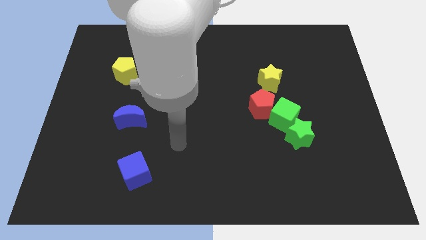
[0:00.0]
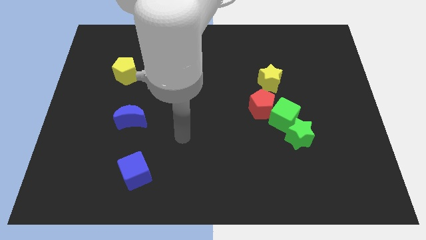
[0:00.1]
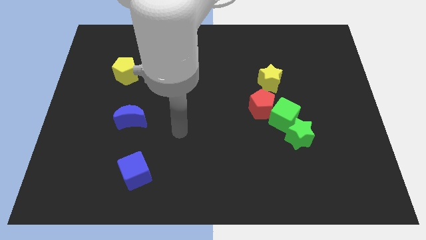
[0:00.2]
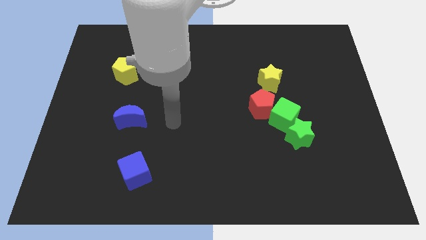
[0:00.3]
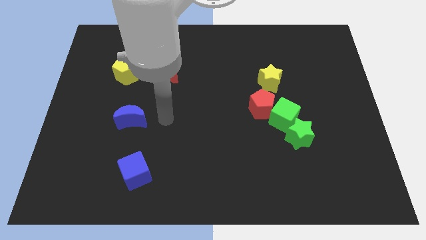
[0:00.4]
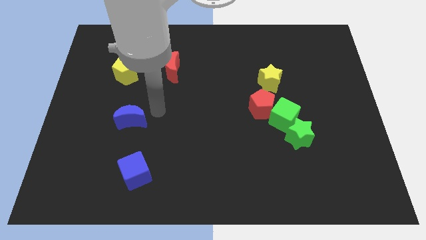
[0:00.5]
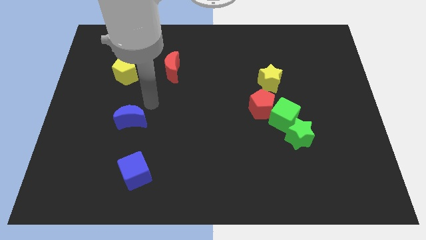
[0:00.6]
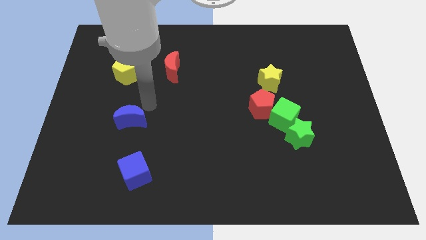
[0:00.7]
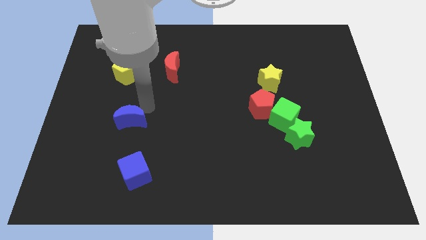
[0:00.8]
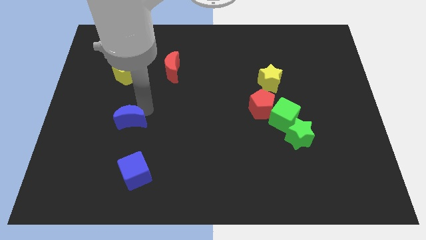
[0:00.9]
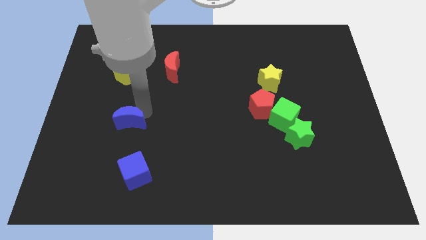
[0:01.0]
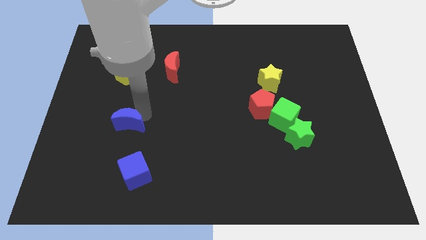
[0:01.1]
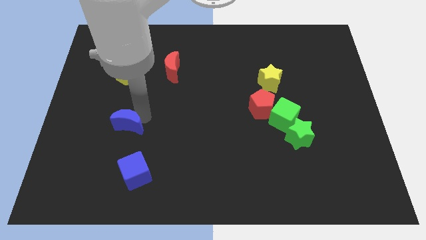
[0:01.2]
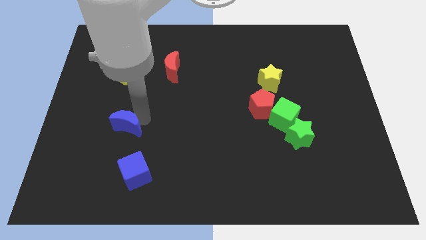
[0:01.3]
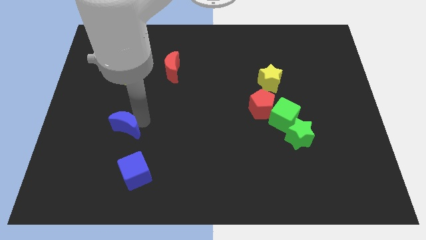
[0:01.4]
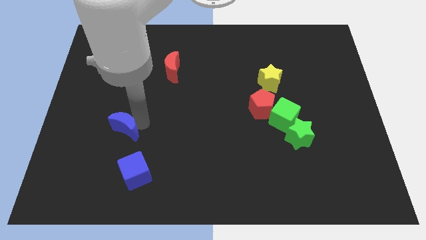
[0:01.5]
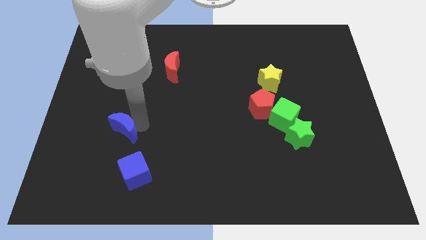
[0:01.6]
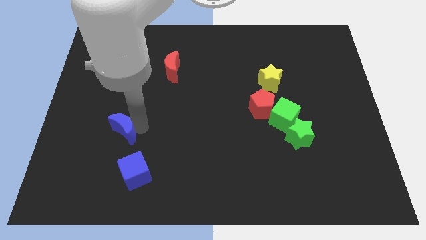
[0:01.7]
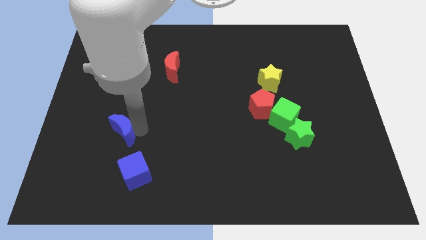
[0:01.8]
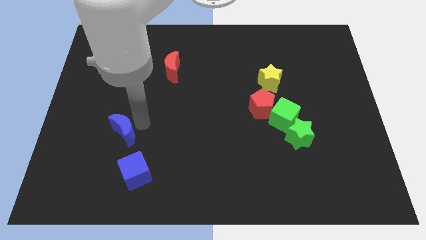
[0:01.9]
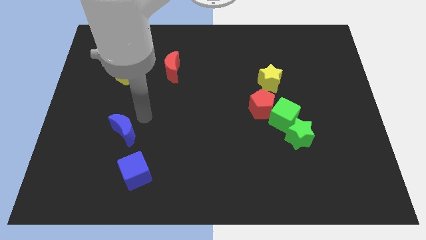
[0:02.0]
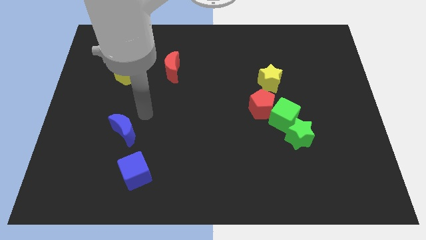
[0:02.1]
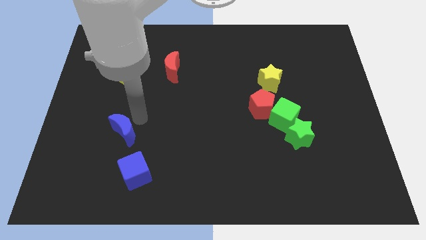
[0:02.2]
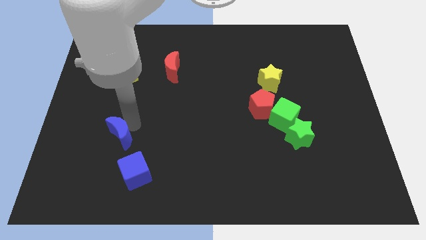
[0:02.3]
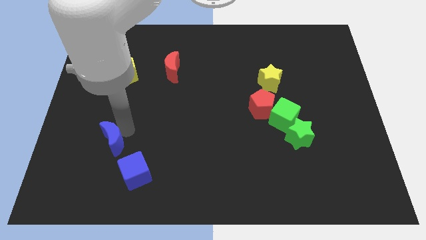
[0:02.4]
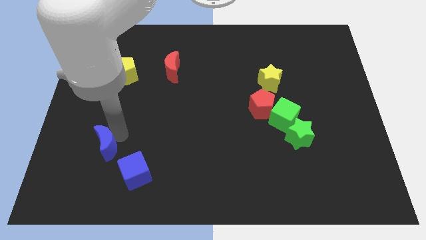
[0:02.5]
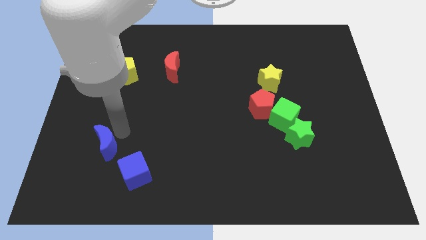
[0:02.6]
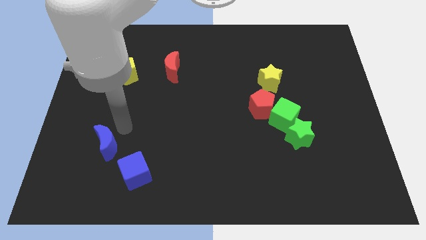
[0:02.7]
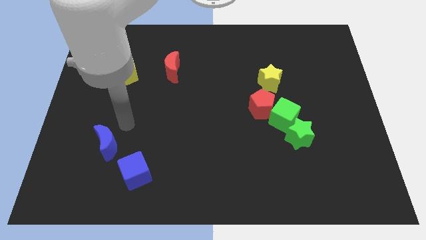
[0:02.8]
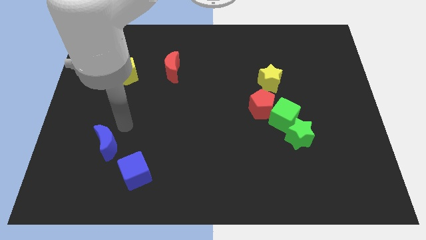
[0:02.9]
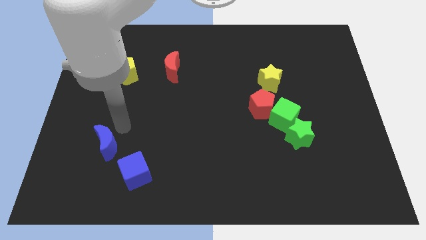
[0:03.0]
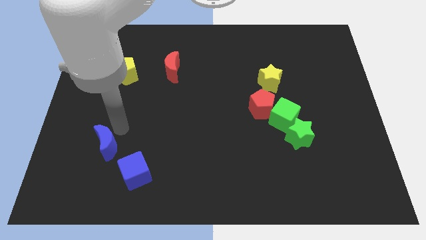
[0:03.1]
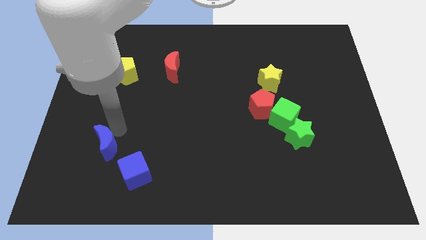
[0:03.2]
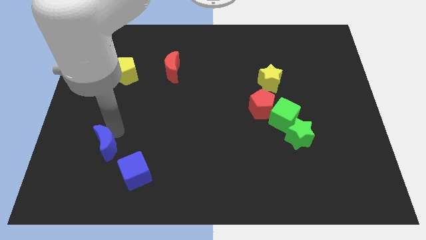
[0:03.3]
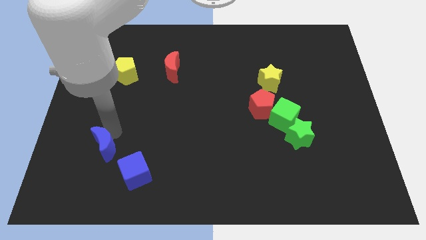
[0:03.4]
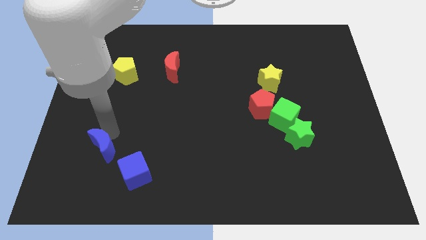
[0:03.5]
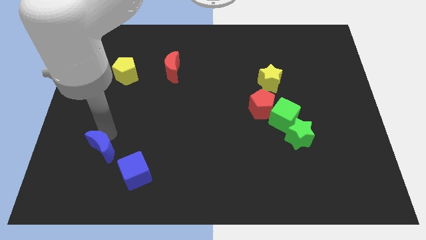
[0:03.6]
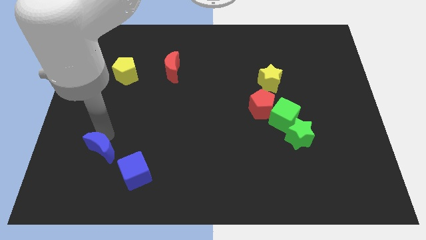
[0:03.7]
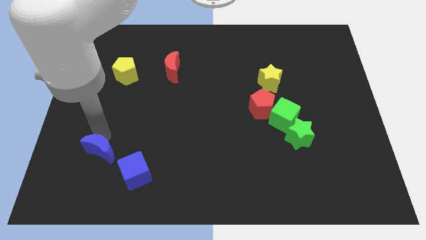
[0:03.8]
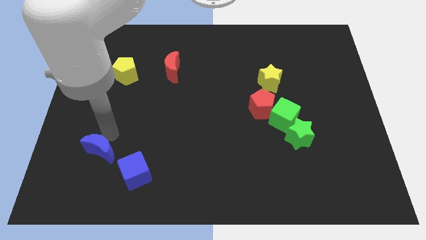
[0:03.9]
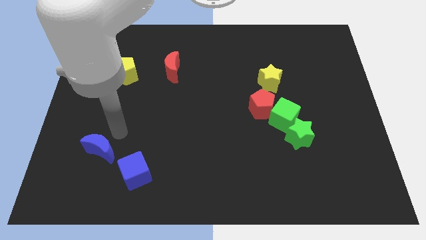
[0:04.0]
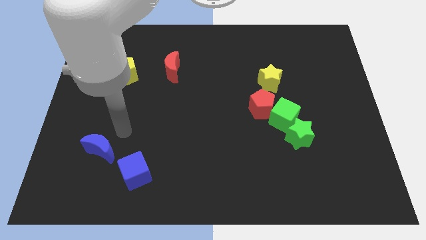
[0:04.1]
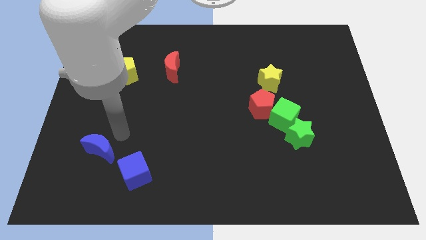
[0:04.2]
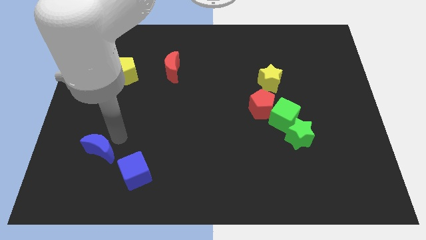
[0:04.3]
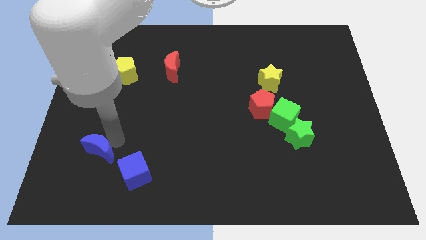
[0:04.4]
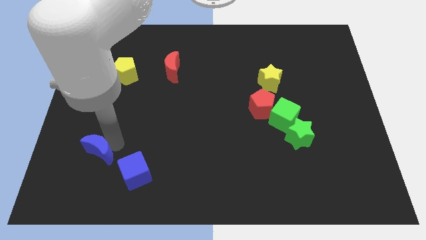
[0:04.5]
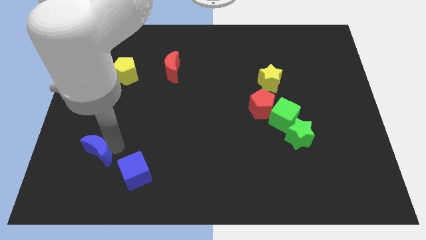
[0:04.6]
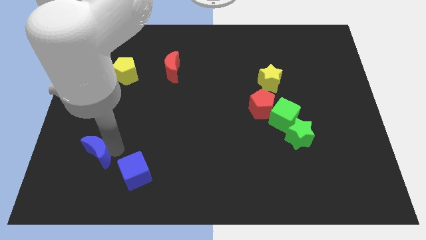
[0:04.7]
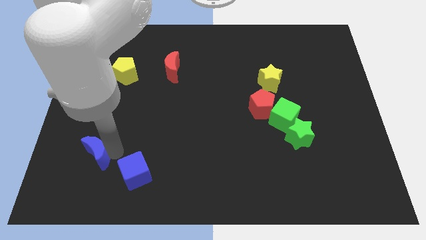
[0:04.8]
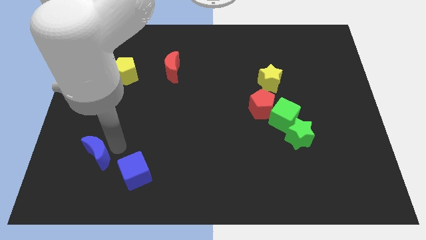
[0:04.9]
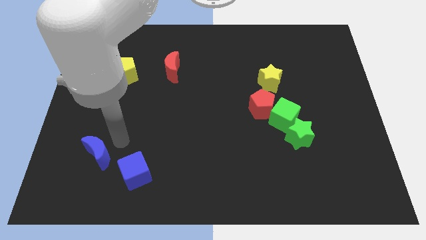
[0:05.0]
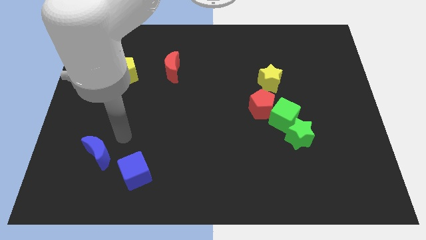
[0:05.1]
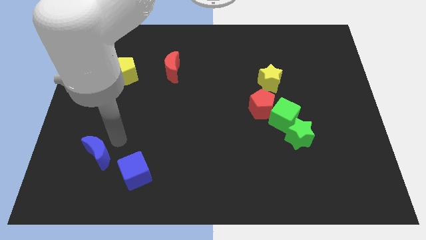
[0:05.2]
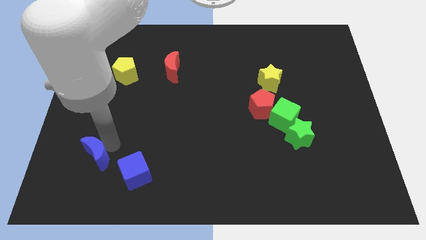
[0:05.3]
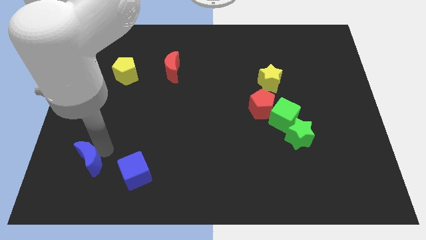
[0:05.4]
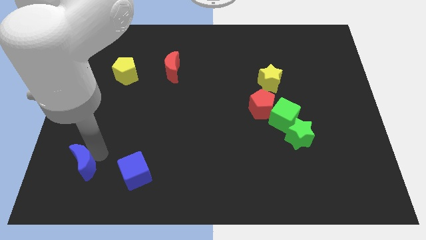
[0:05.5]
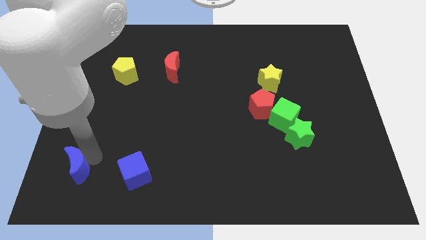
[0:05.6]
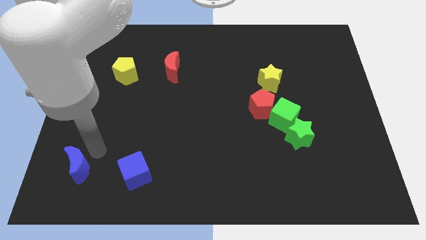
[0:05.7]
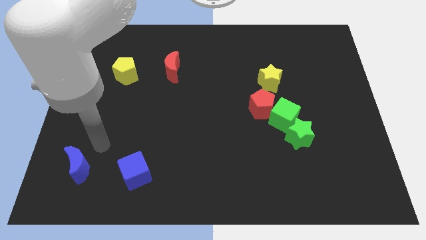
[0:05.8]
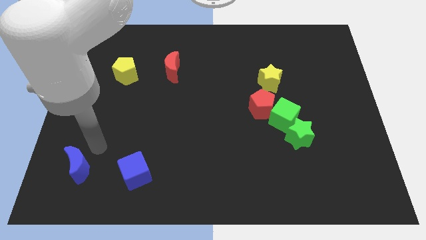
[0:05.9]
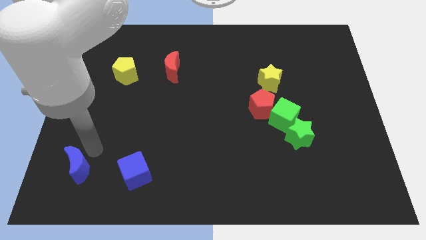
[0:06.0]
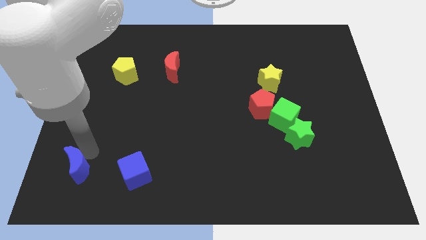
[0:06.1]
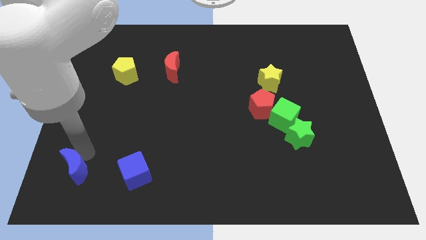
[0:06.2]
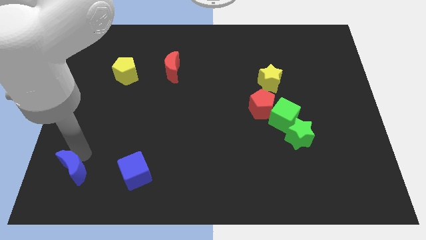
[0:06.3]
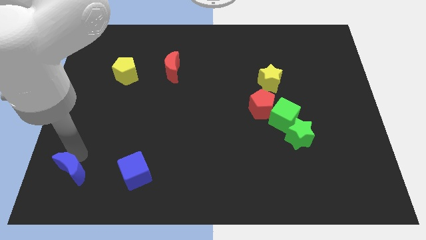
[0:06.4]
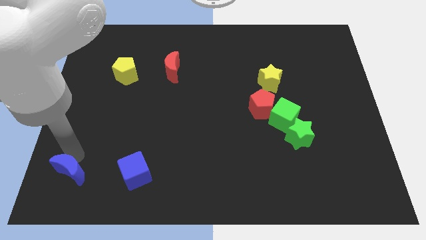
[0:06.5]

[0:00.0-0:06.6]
move the blue moon to the bottom left corner
